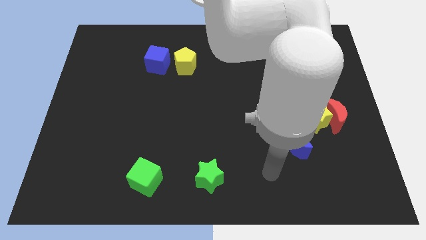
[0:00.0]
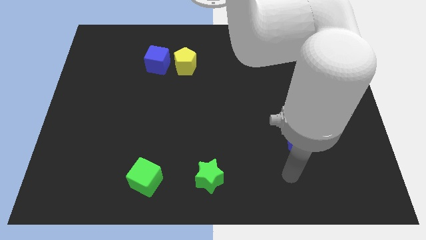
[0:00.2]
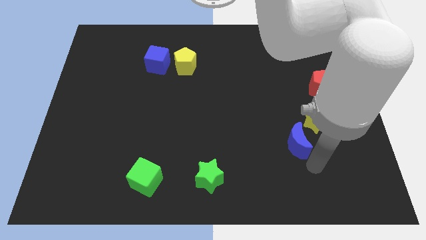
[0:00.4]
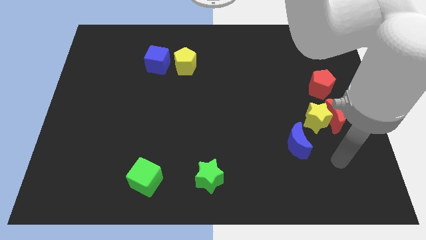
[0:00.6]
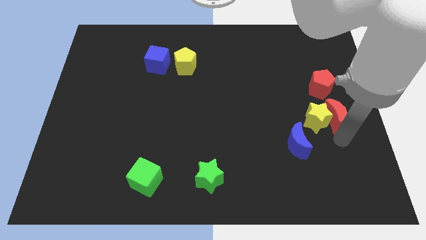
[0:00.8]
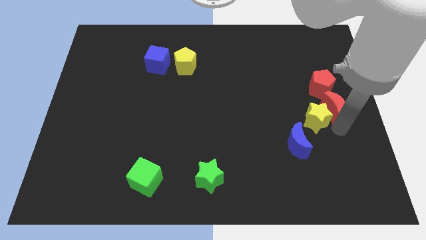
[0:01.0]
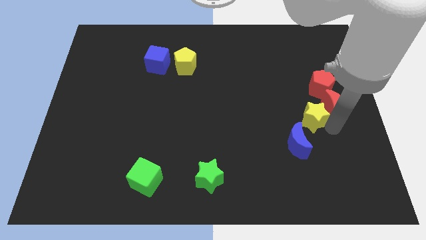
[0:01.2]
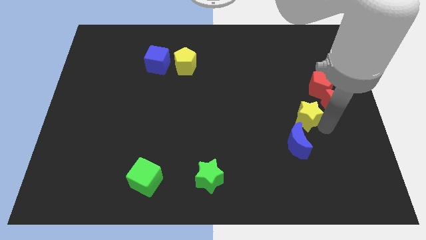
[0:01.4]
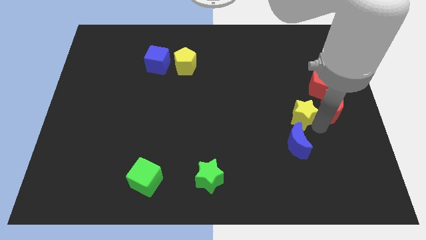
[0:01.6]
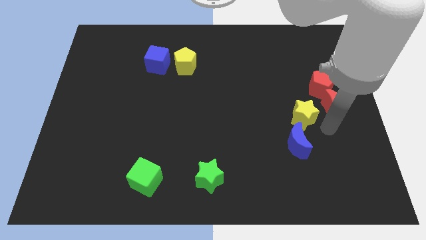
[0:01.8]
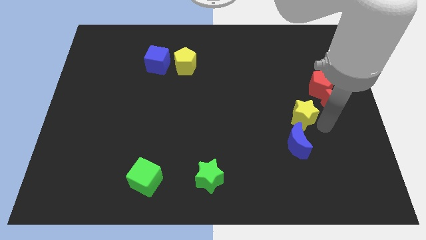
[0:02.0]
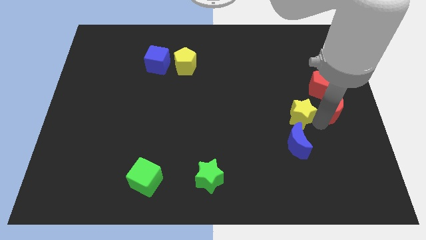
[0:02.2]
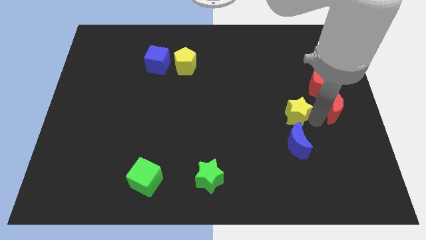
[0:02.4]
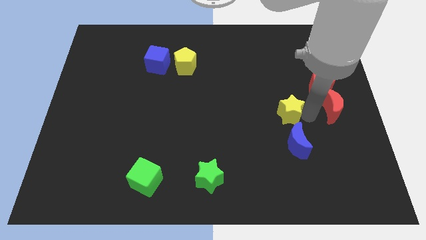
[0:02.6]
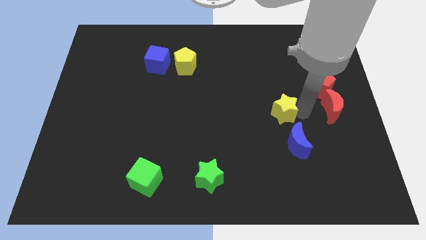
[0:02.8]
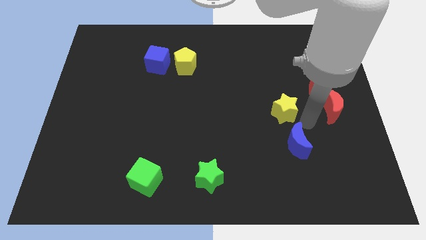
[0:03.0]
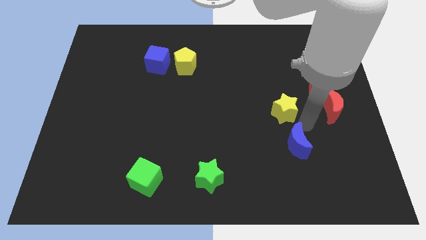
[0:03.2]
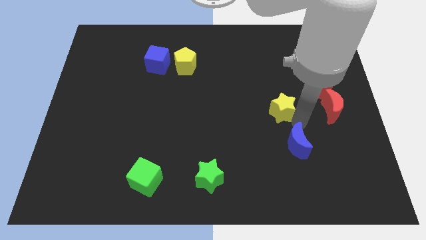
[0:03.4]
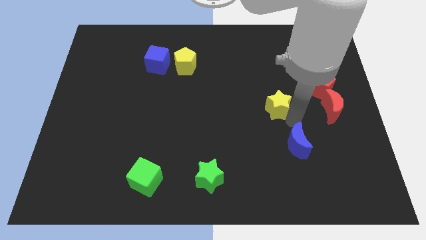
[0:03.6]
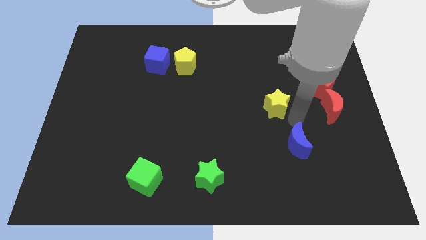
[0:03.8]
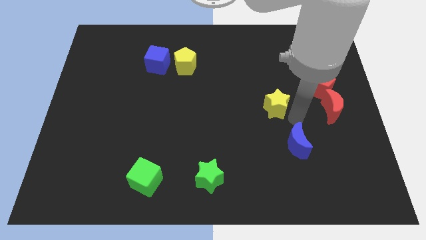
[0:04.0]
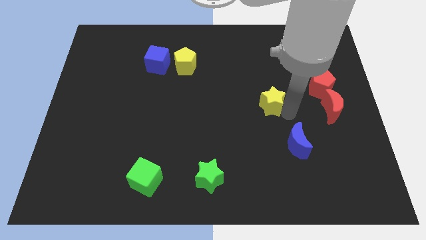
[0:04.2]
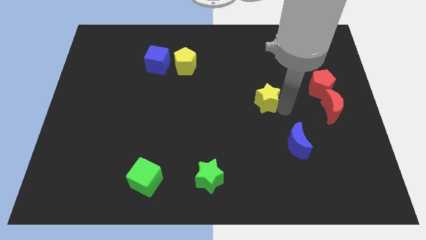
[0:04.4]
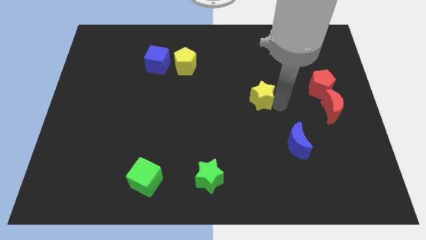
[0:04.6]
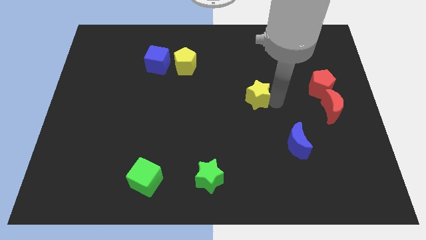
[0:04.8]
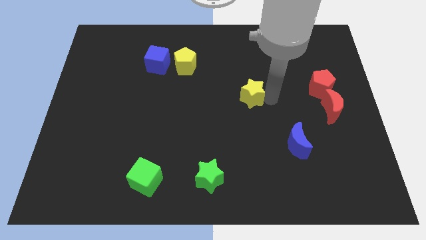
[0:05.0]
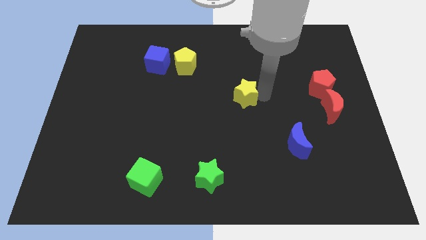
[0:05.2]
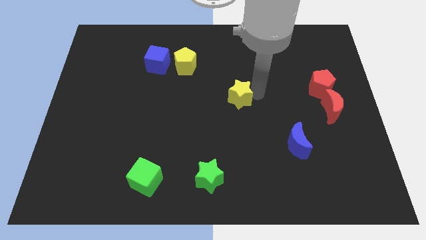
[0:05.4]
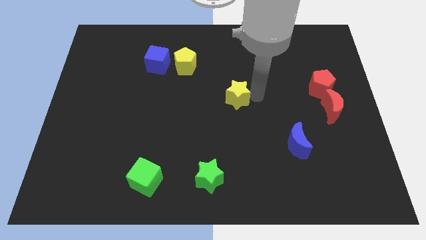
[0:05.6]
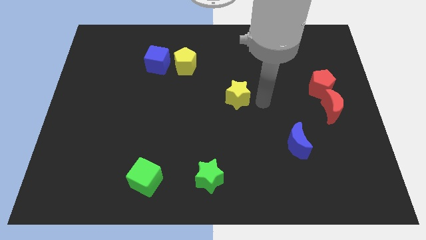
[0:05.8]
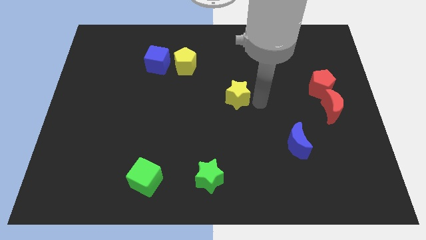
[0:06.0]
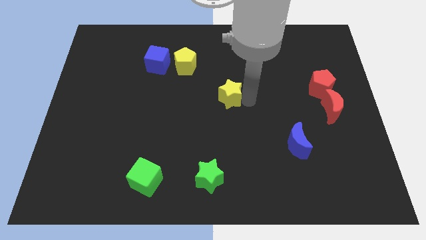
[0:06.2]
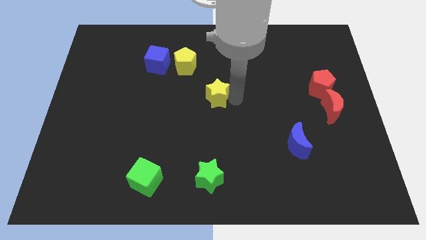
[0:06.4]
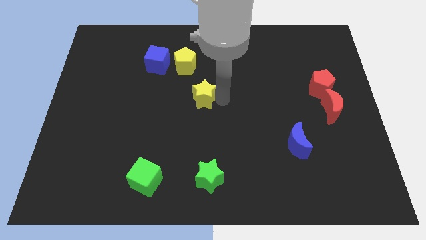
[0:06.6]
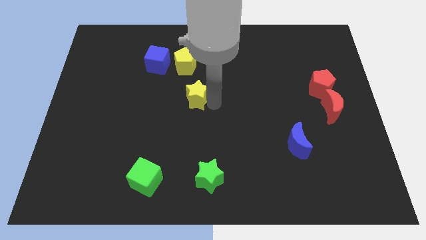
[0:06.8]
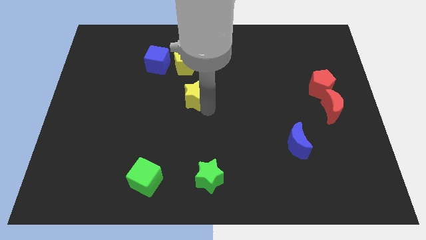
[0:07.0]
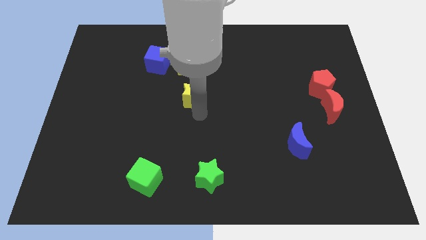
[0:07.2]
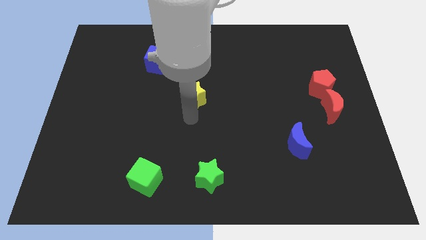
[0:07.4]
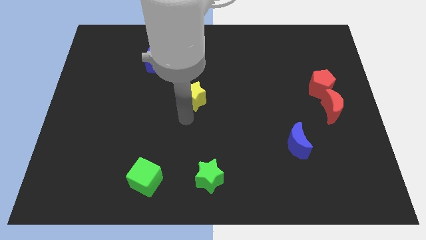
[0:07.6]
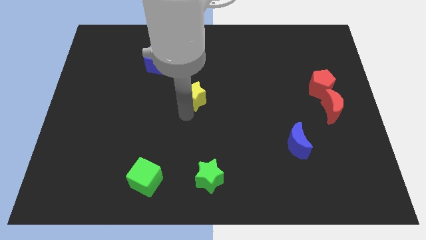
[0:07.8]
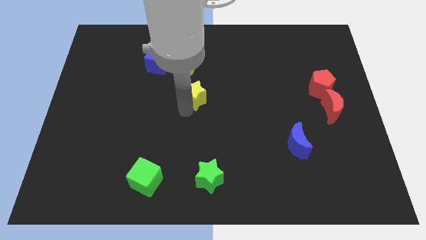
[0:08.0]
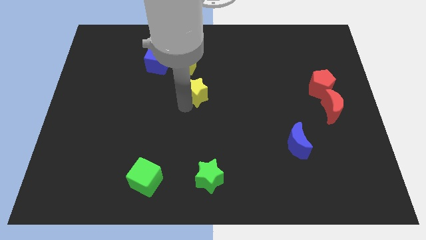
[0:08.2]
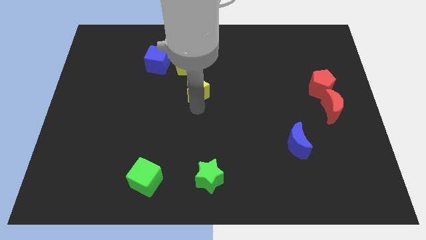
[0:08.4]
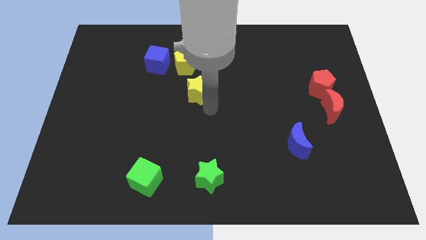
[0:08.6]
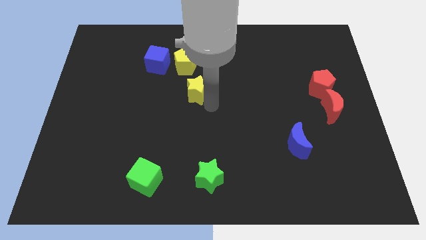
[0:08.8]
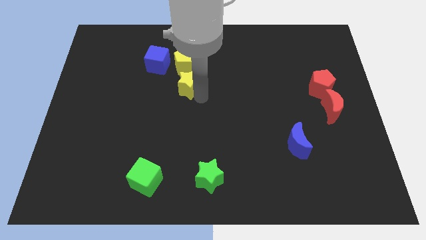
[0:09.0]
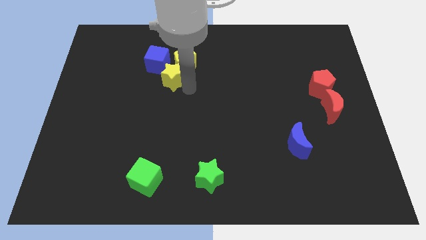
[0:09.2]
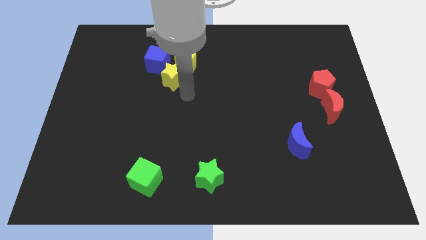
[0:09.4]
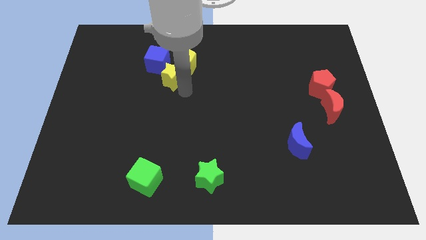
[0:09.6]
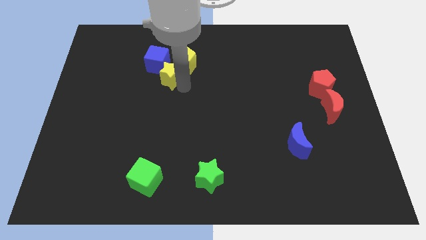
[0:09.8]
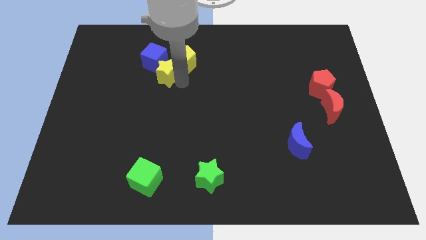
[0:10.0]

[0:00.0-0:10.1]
slide the yellow star next to the blue cube

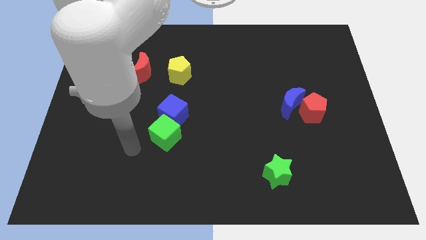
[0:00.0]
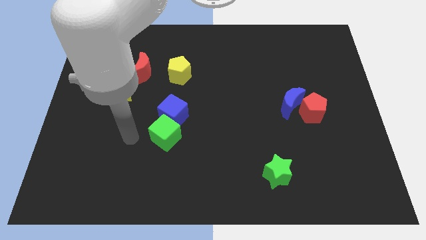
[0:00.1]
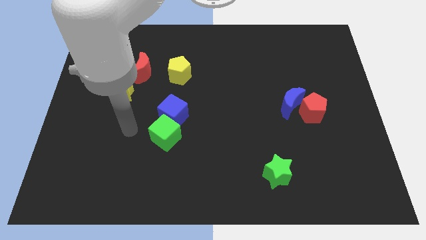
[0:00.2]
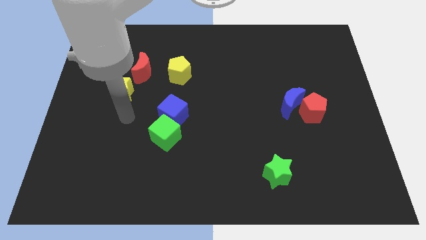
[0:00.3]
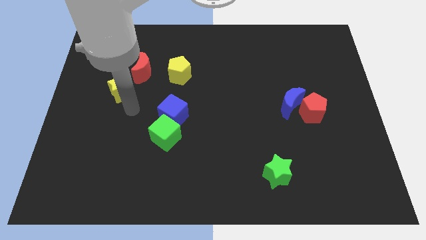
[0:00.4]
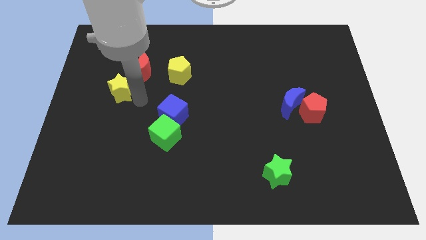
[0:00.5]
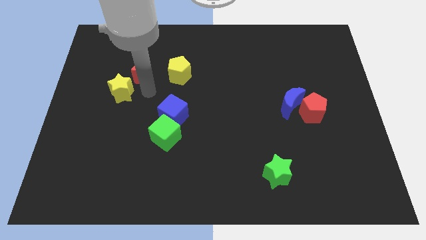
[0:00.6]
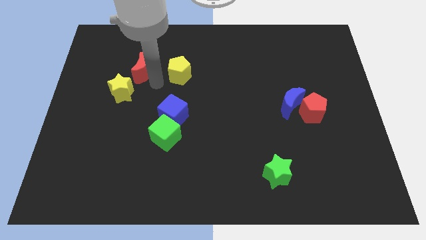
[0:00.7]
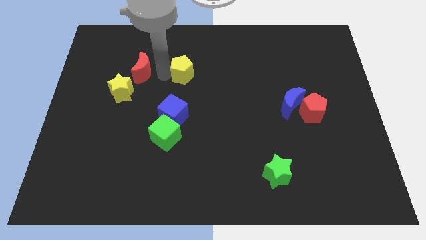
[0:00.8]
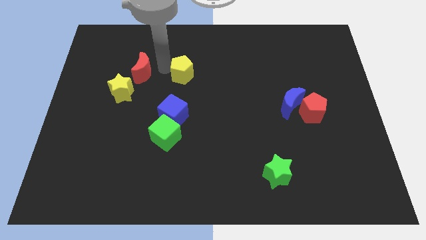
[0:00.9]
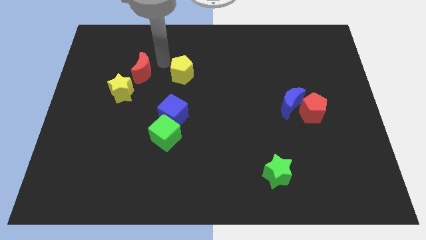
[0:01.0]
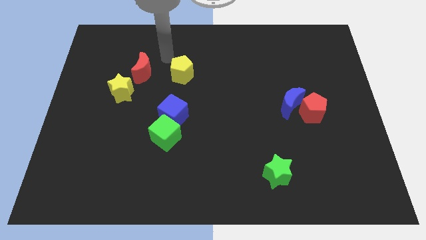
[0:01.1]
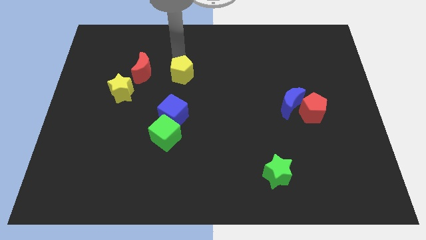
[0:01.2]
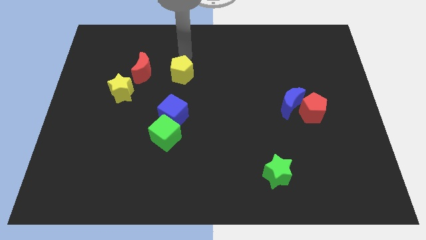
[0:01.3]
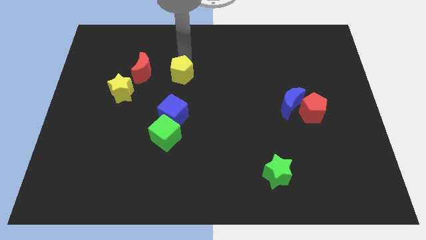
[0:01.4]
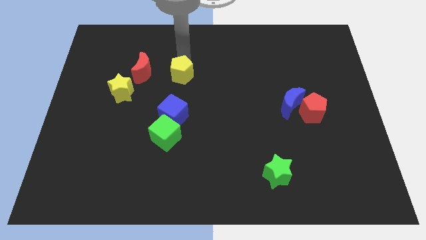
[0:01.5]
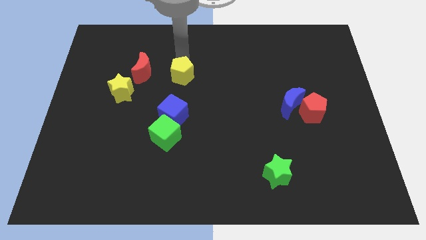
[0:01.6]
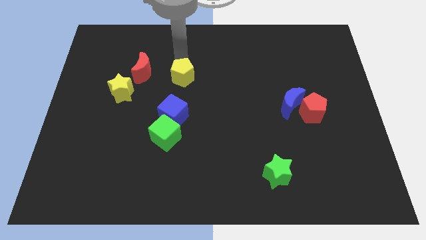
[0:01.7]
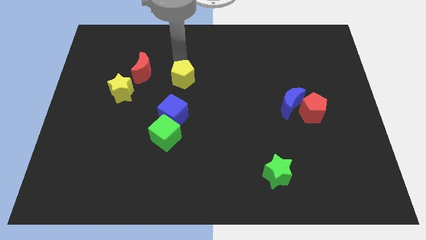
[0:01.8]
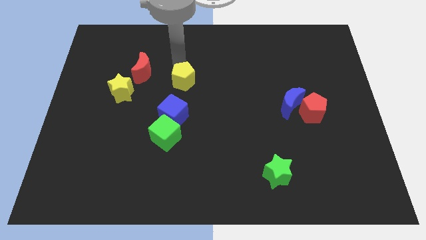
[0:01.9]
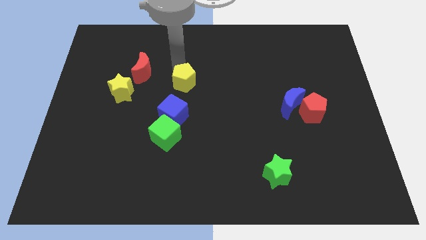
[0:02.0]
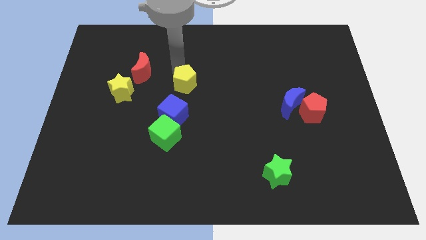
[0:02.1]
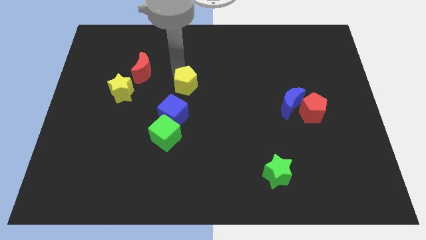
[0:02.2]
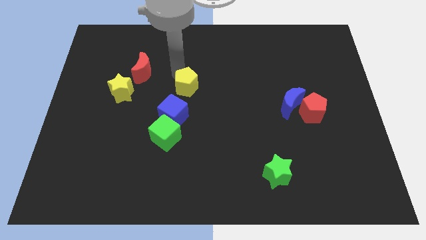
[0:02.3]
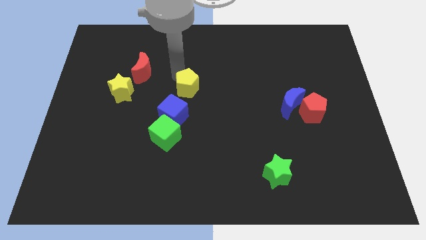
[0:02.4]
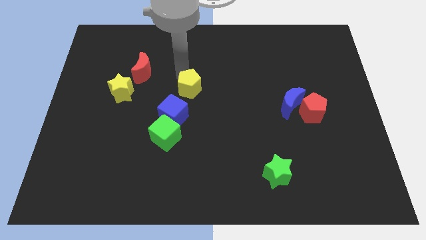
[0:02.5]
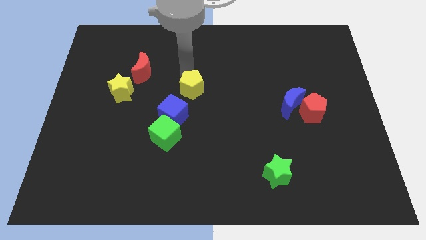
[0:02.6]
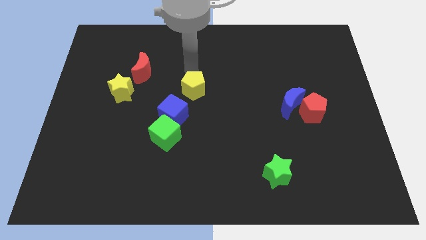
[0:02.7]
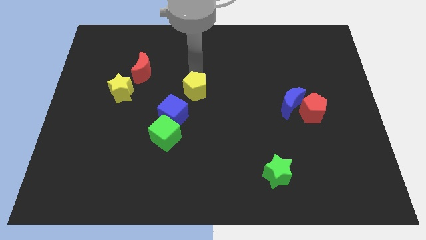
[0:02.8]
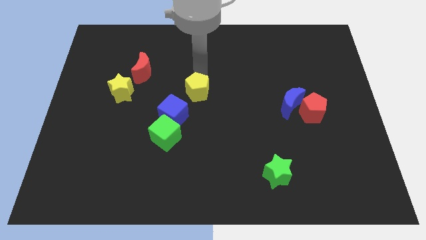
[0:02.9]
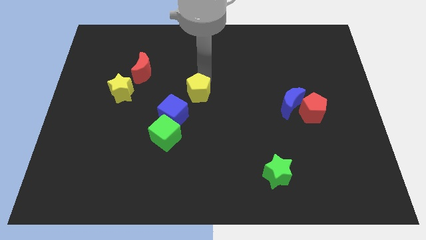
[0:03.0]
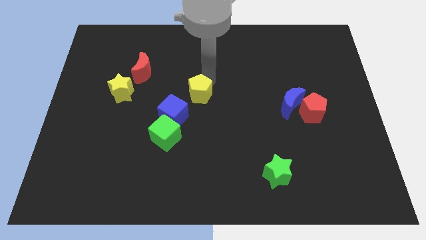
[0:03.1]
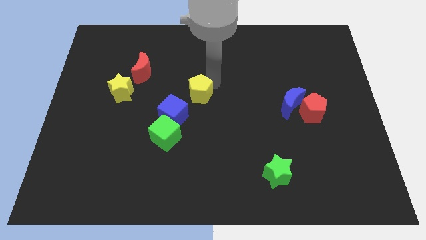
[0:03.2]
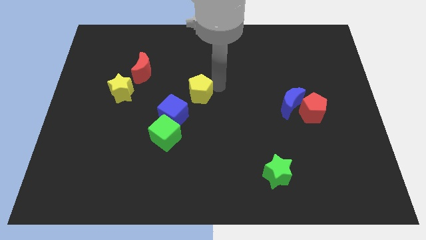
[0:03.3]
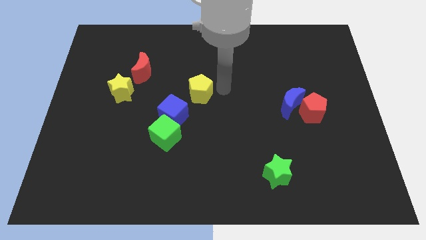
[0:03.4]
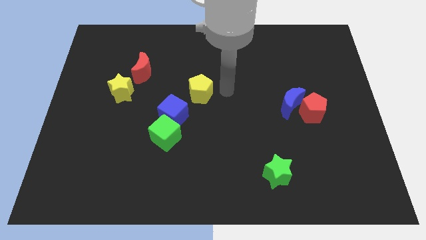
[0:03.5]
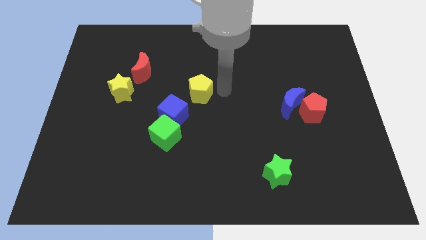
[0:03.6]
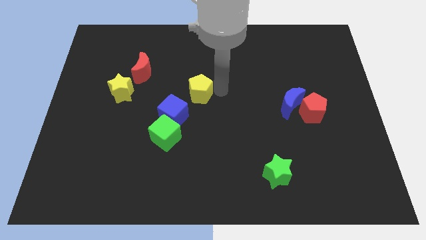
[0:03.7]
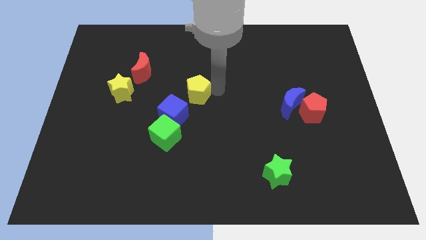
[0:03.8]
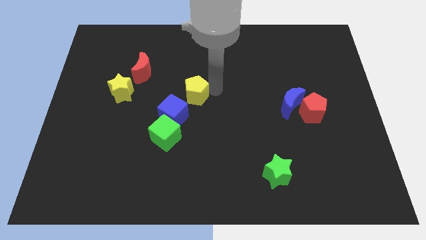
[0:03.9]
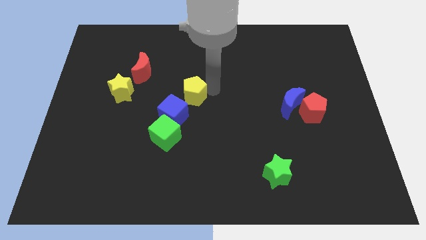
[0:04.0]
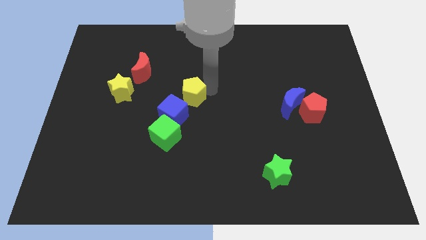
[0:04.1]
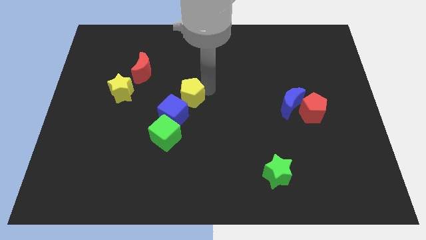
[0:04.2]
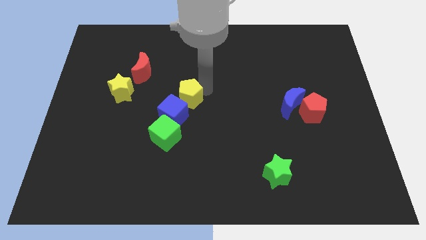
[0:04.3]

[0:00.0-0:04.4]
move the yellow pentagon next to the blue cube
